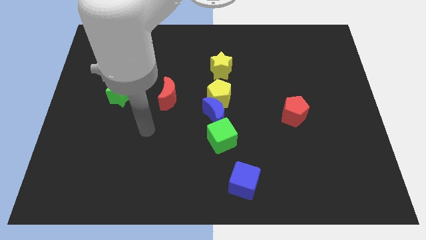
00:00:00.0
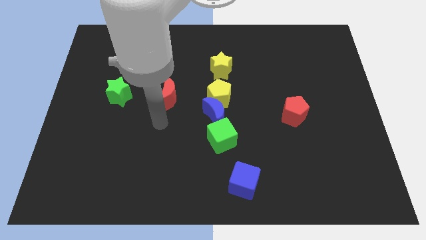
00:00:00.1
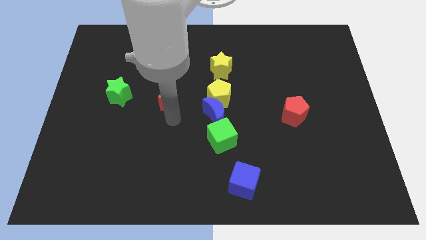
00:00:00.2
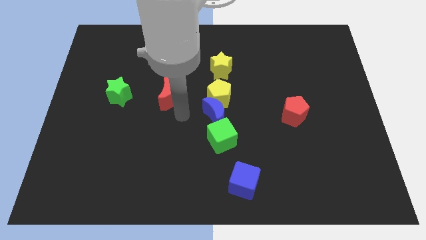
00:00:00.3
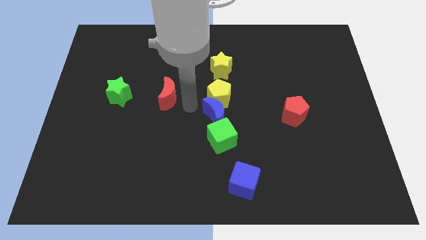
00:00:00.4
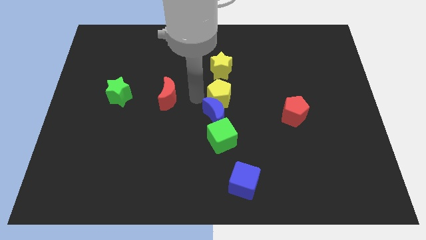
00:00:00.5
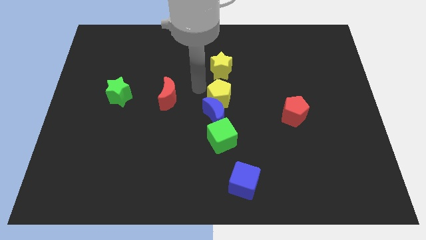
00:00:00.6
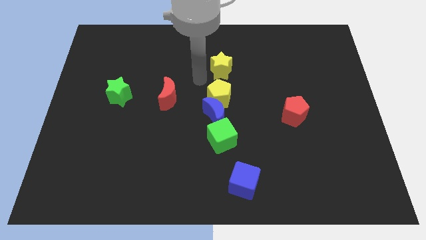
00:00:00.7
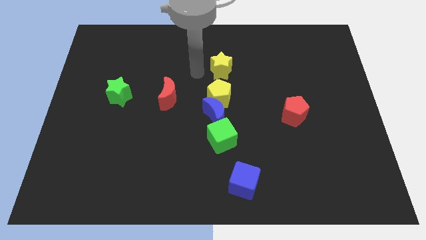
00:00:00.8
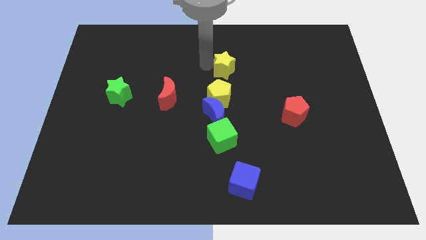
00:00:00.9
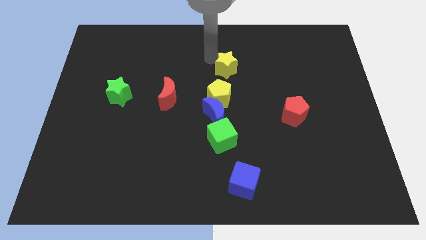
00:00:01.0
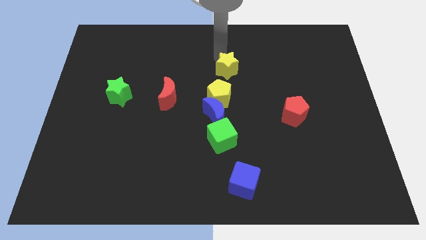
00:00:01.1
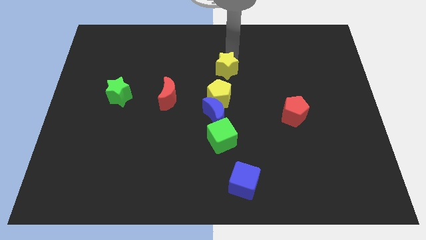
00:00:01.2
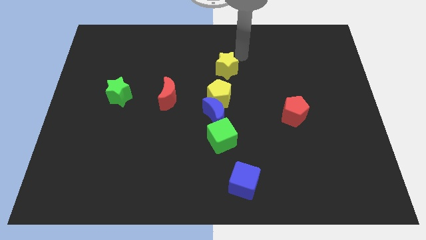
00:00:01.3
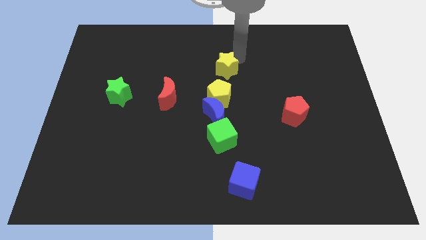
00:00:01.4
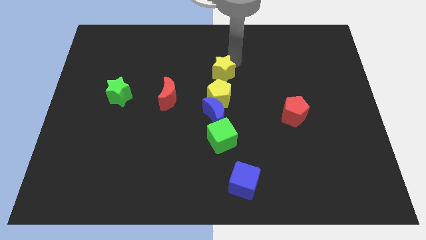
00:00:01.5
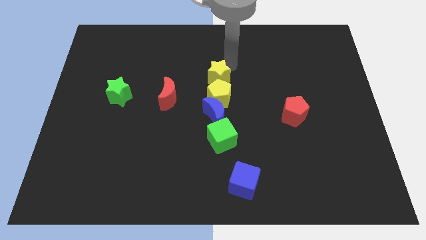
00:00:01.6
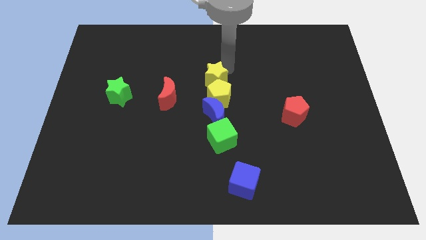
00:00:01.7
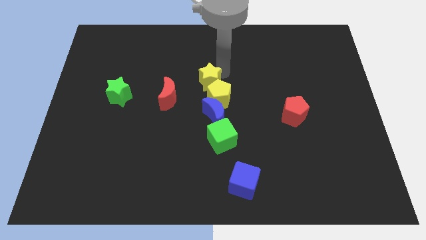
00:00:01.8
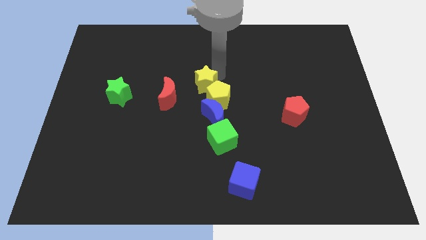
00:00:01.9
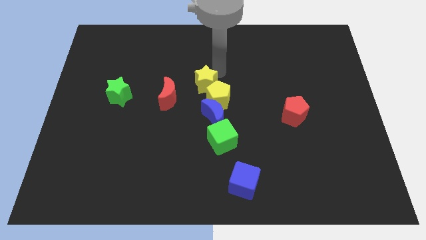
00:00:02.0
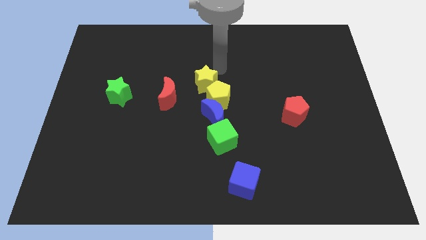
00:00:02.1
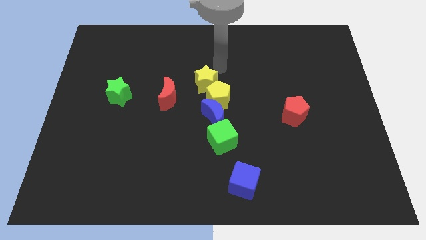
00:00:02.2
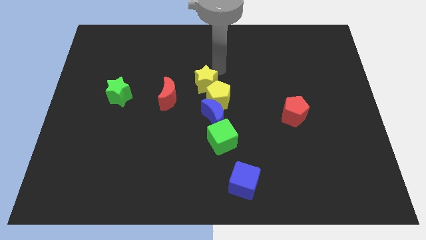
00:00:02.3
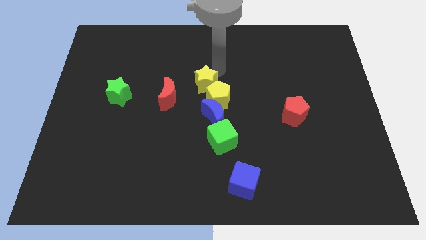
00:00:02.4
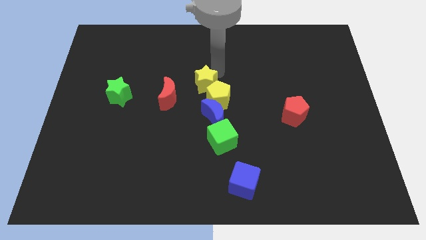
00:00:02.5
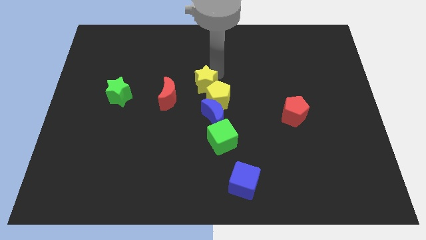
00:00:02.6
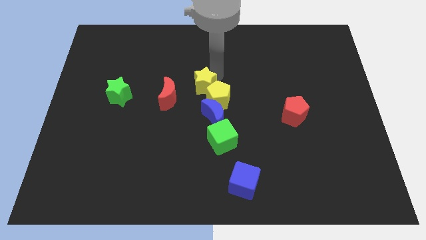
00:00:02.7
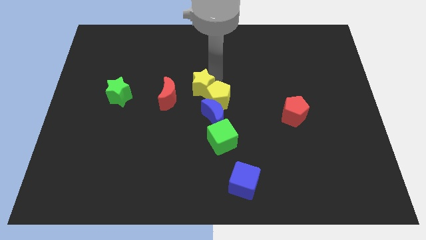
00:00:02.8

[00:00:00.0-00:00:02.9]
slightly slide the yellow star downwards and left diagonally

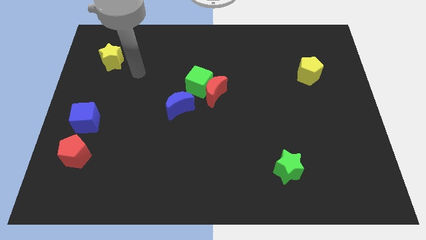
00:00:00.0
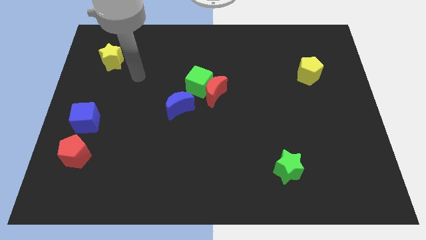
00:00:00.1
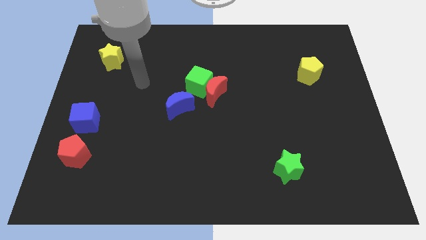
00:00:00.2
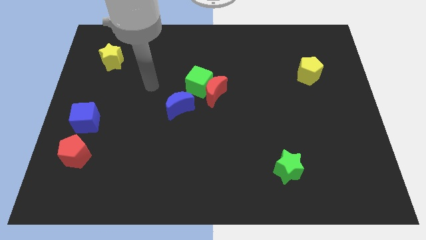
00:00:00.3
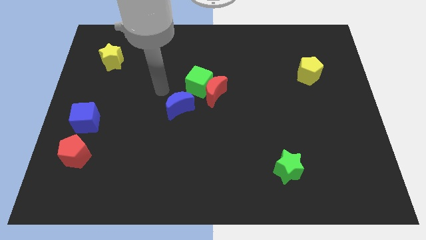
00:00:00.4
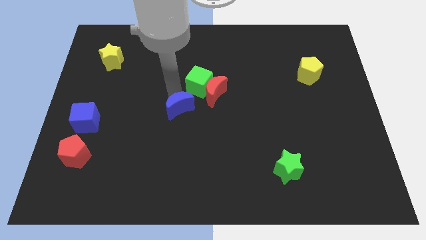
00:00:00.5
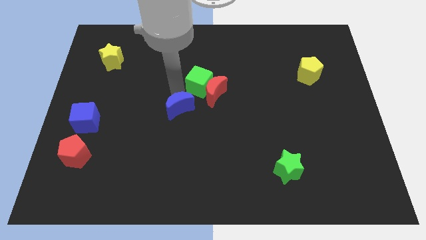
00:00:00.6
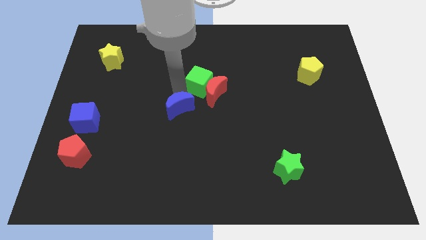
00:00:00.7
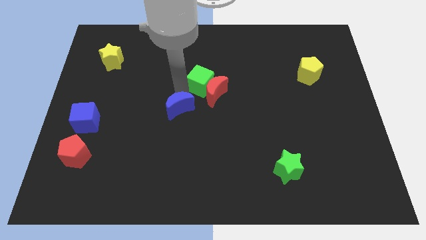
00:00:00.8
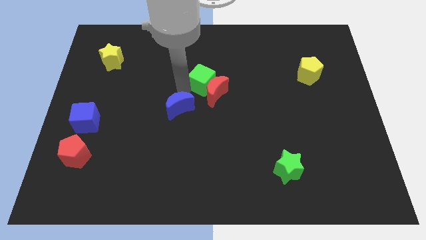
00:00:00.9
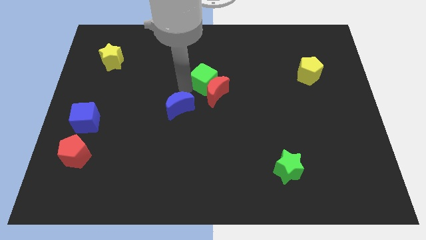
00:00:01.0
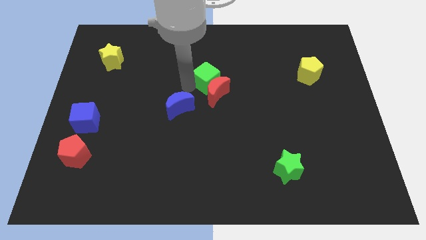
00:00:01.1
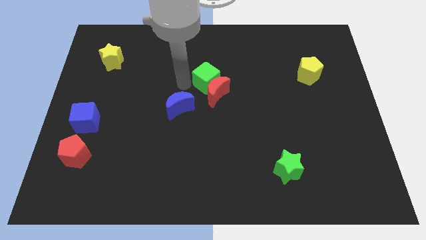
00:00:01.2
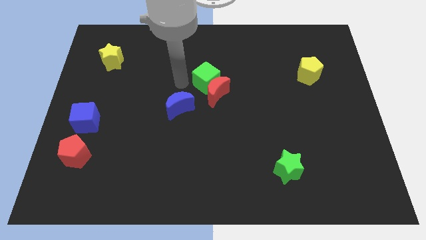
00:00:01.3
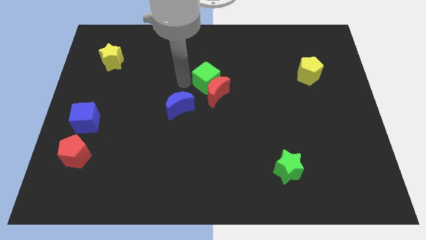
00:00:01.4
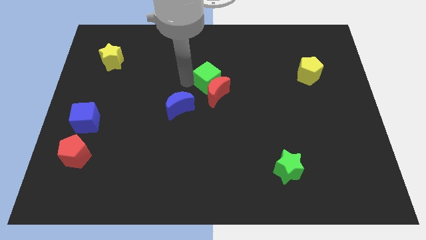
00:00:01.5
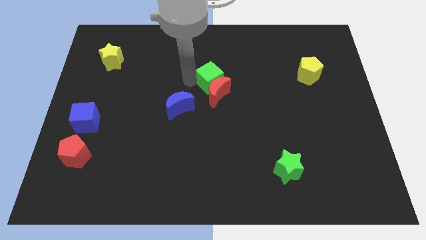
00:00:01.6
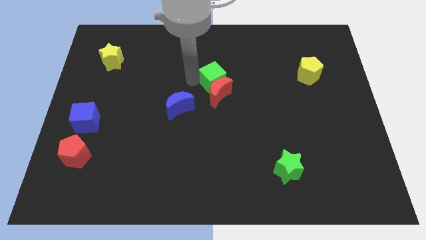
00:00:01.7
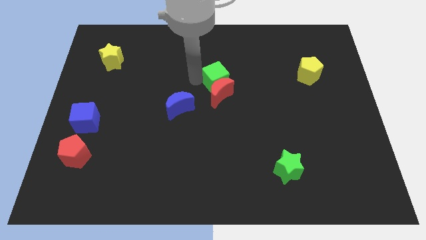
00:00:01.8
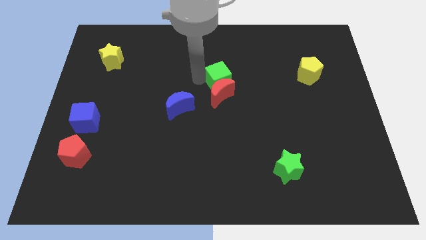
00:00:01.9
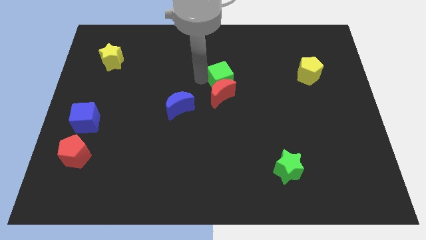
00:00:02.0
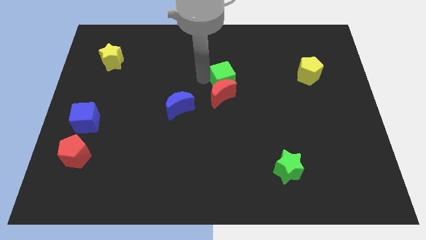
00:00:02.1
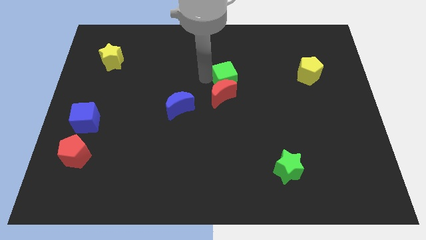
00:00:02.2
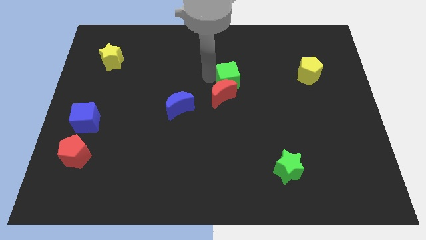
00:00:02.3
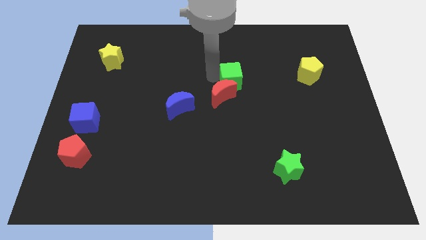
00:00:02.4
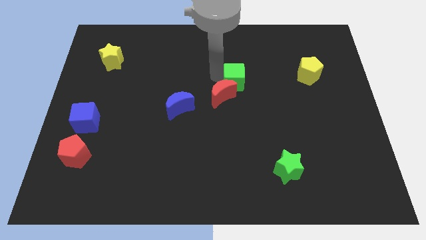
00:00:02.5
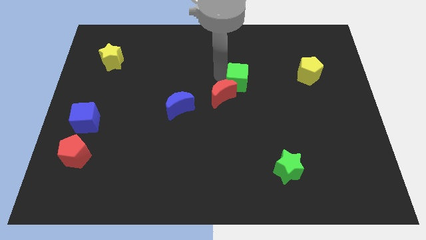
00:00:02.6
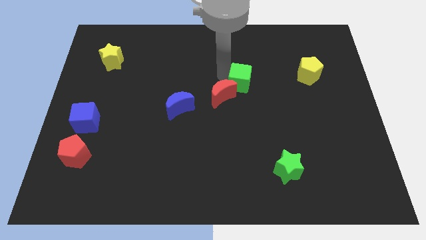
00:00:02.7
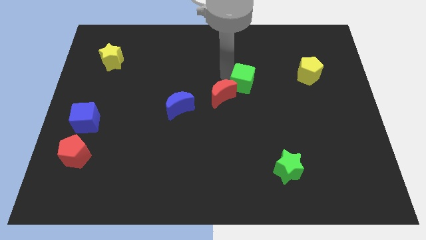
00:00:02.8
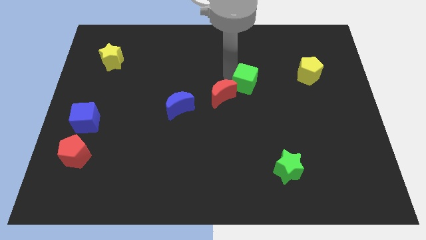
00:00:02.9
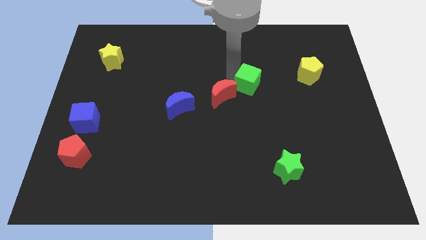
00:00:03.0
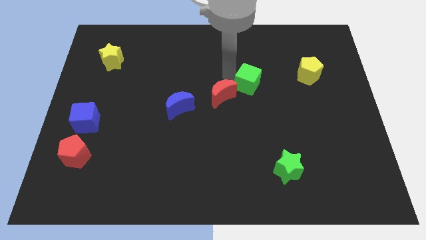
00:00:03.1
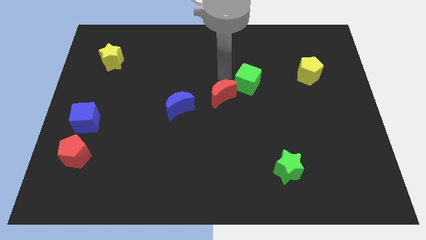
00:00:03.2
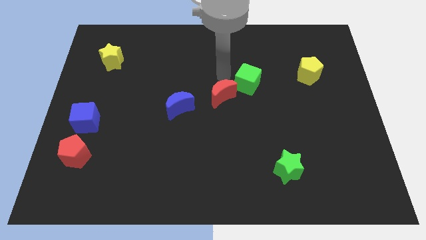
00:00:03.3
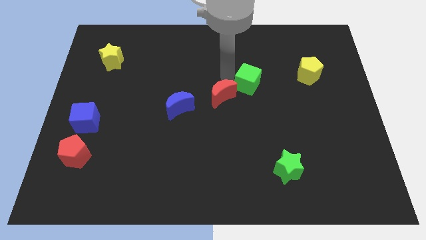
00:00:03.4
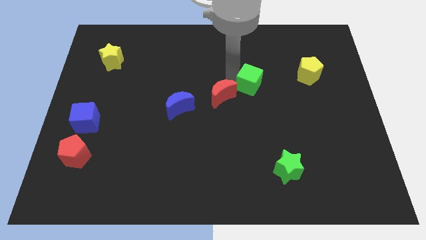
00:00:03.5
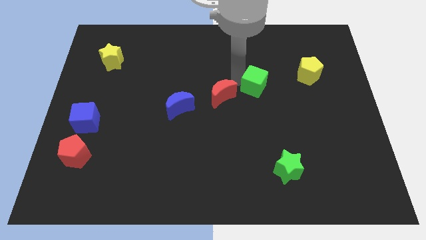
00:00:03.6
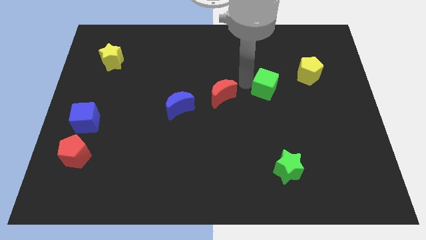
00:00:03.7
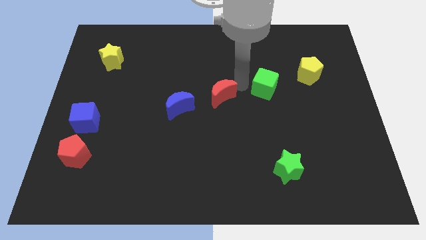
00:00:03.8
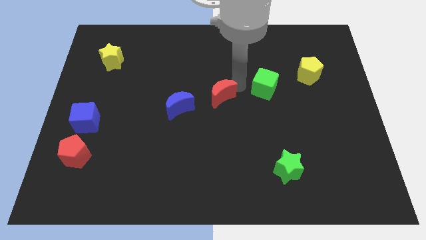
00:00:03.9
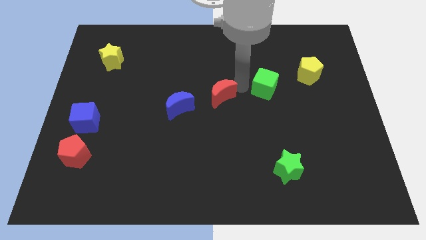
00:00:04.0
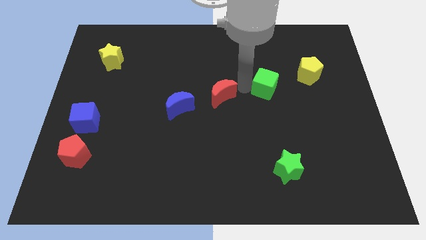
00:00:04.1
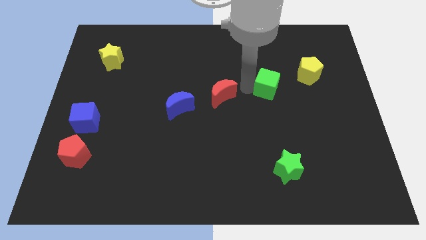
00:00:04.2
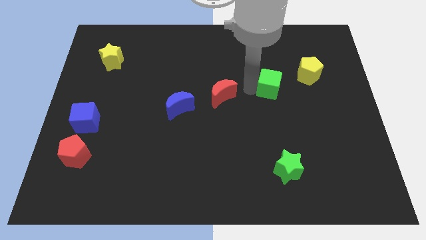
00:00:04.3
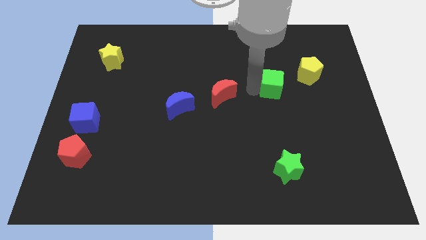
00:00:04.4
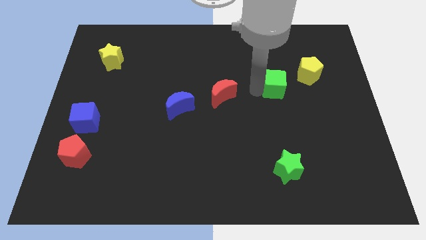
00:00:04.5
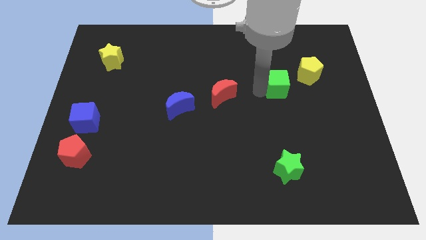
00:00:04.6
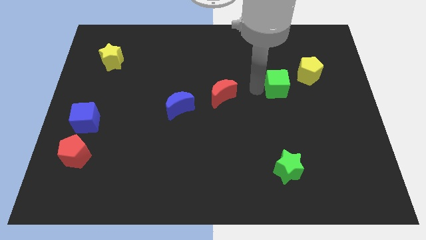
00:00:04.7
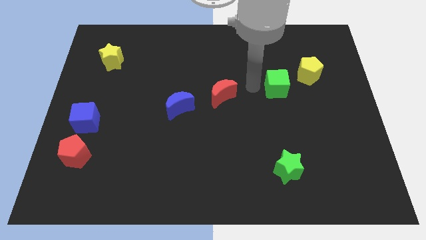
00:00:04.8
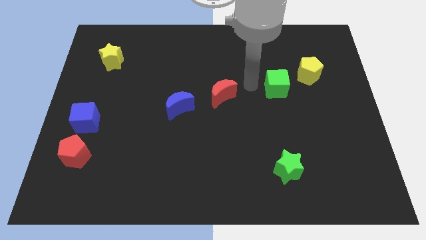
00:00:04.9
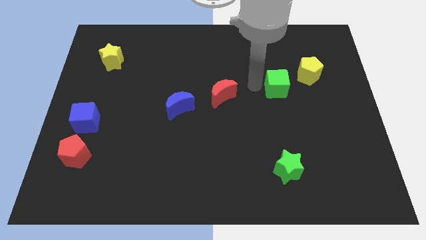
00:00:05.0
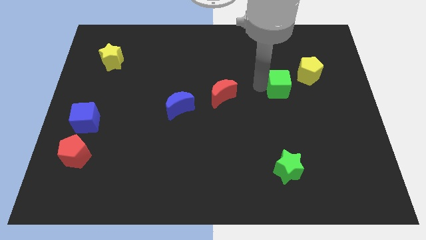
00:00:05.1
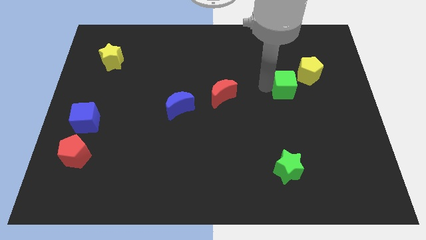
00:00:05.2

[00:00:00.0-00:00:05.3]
move the green cube to the right

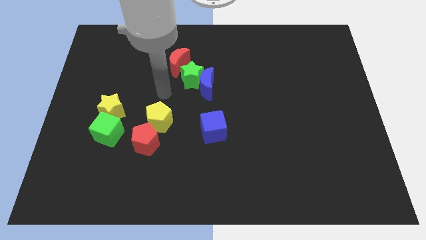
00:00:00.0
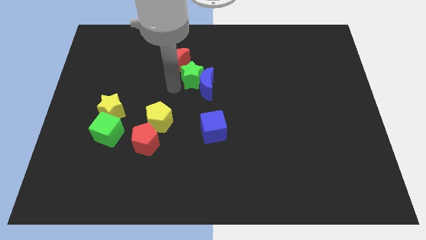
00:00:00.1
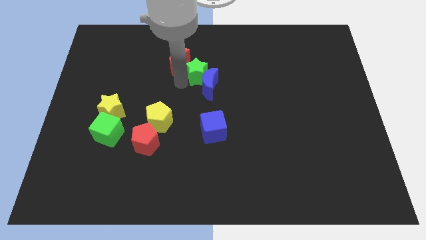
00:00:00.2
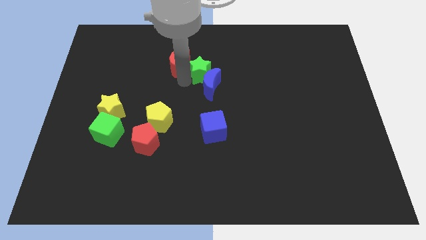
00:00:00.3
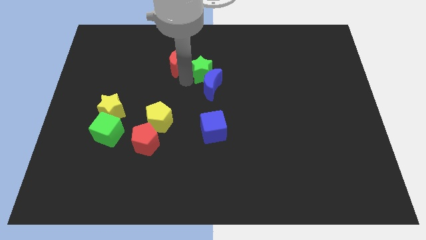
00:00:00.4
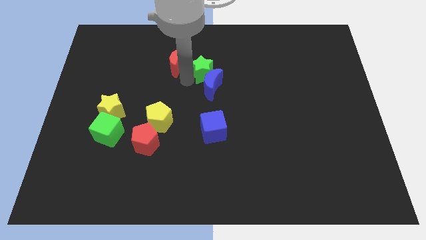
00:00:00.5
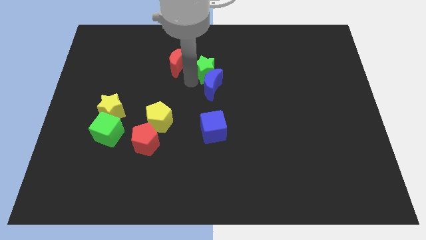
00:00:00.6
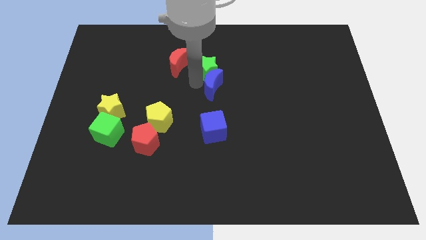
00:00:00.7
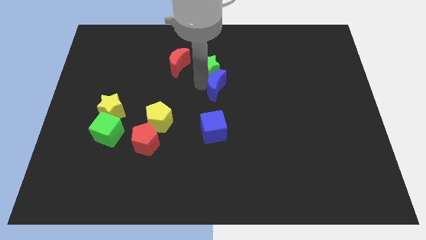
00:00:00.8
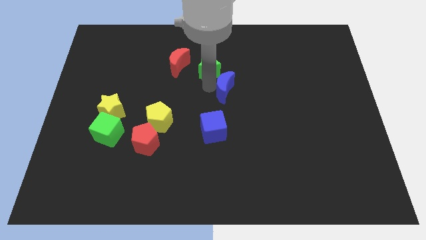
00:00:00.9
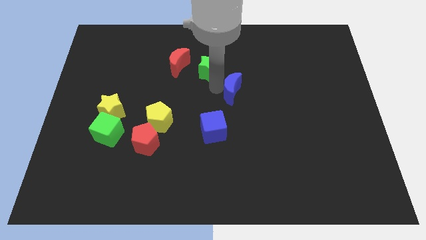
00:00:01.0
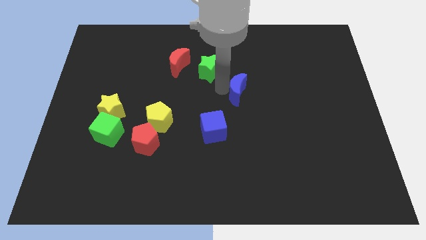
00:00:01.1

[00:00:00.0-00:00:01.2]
move the blue moon to the right a little
